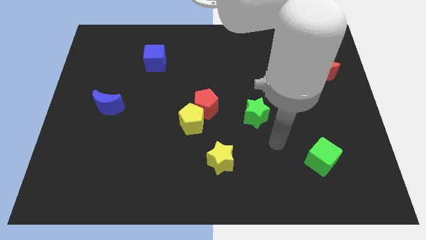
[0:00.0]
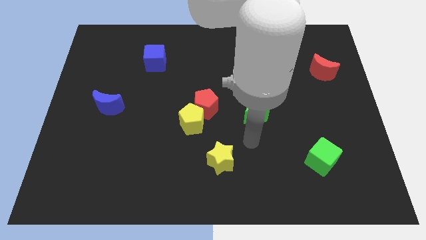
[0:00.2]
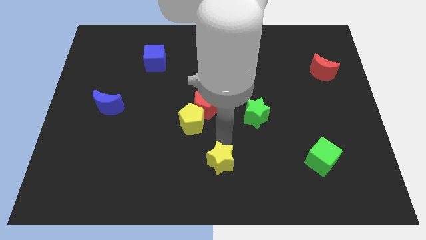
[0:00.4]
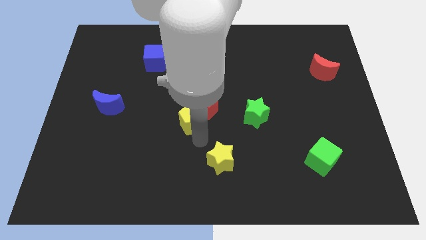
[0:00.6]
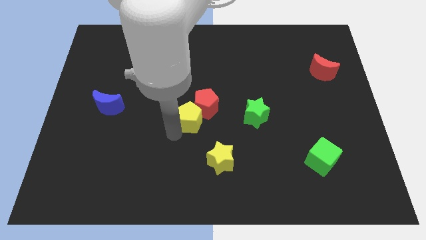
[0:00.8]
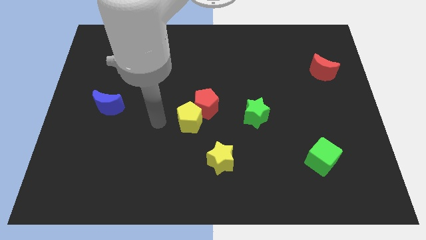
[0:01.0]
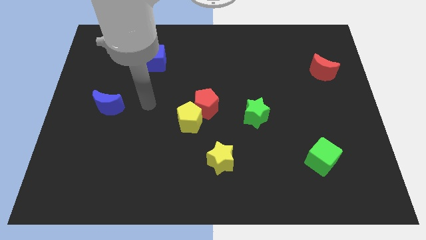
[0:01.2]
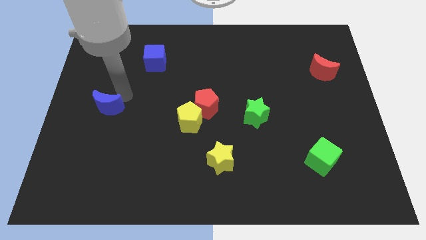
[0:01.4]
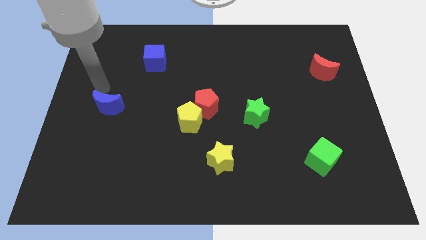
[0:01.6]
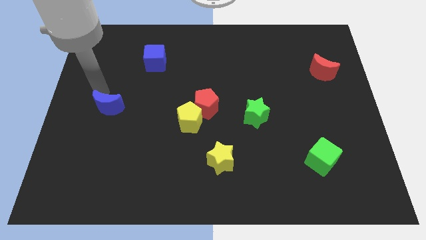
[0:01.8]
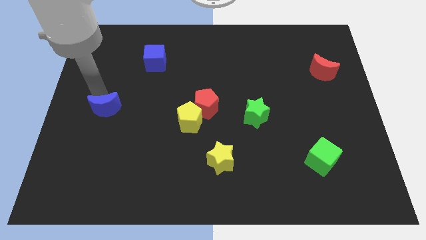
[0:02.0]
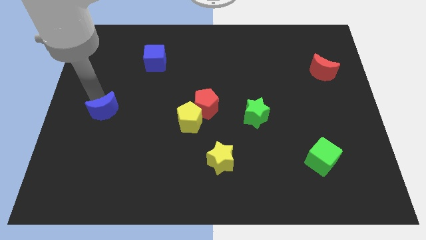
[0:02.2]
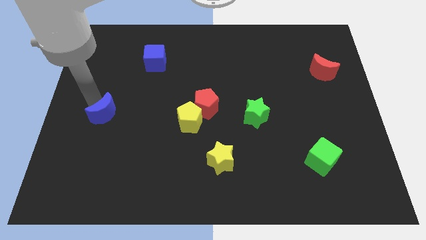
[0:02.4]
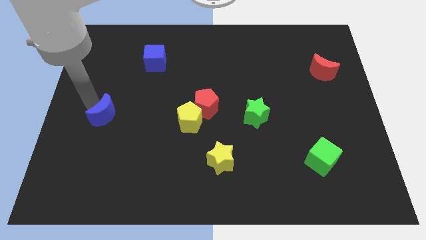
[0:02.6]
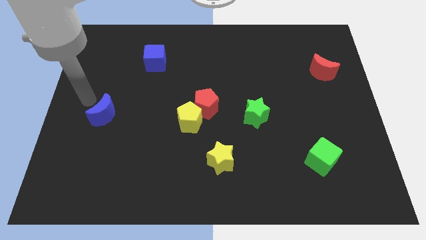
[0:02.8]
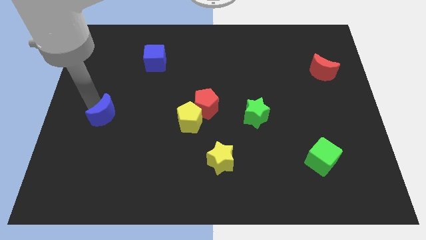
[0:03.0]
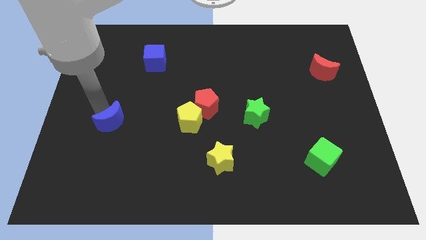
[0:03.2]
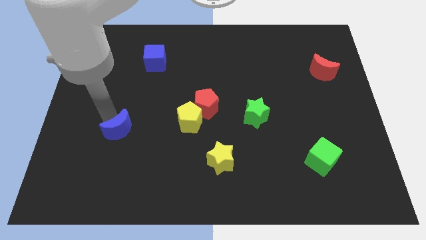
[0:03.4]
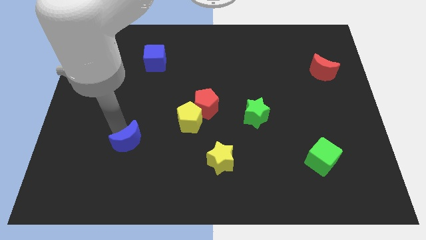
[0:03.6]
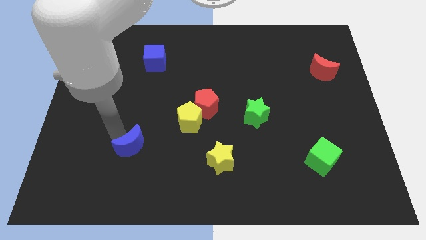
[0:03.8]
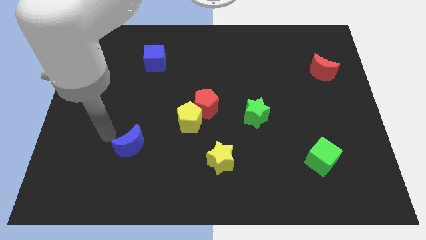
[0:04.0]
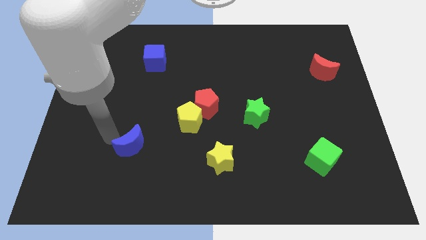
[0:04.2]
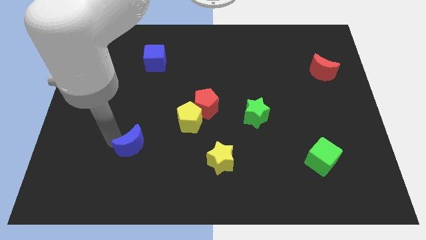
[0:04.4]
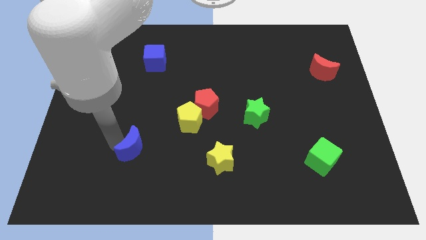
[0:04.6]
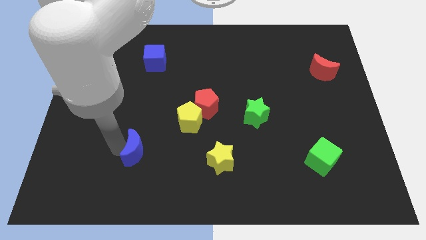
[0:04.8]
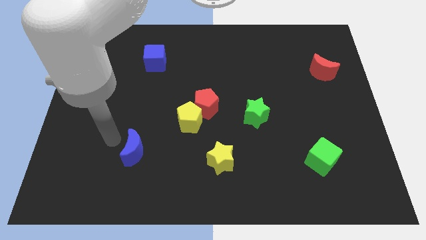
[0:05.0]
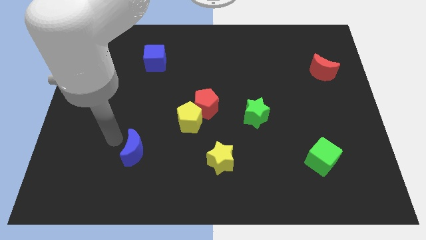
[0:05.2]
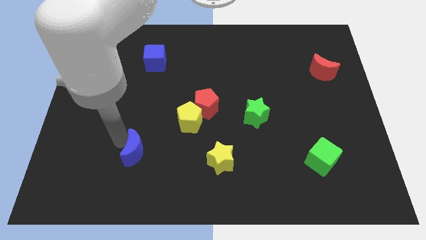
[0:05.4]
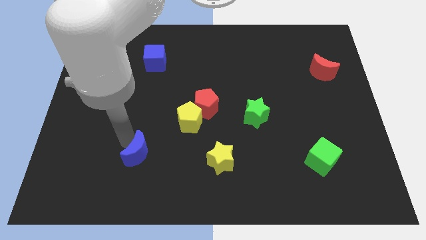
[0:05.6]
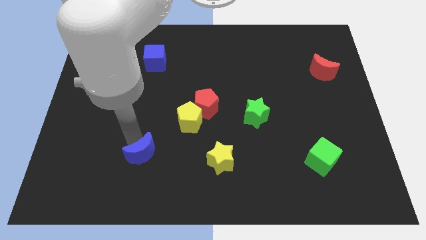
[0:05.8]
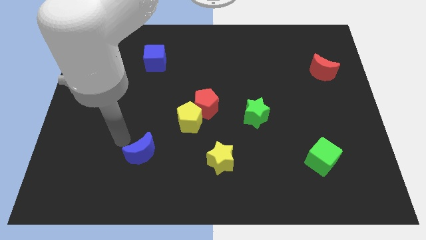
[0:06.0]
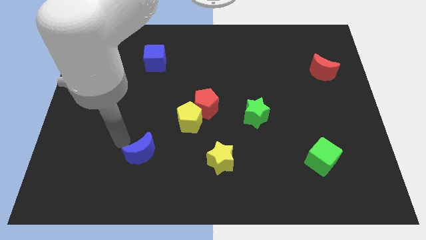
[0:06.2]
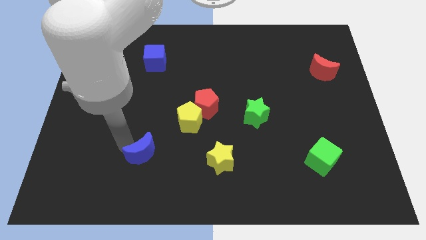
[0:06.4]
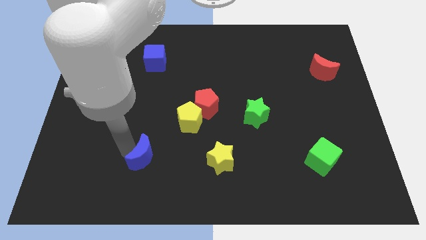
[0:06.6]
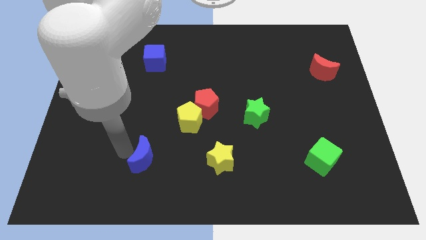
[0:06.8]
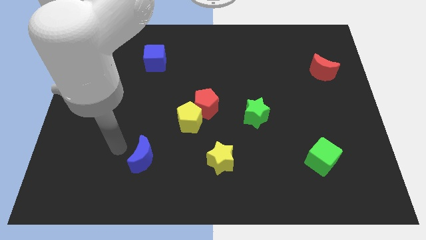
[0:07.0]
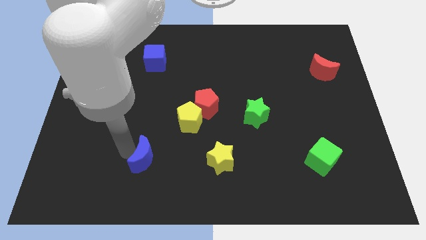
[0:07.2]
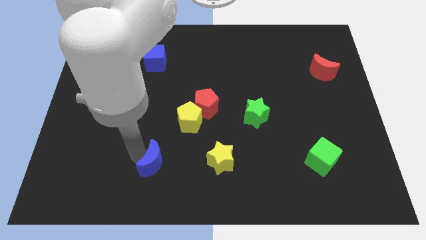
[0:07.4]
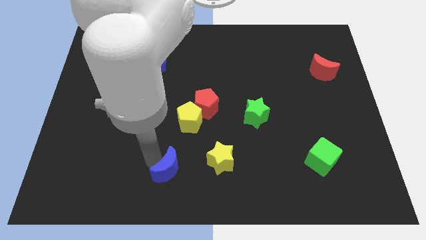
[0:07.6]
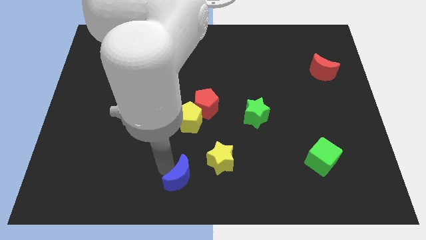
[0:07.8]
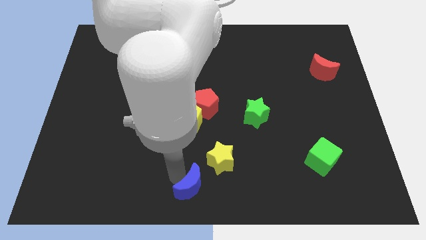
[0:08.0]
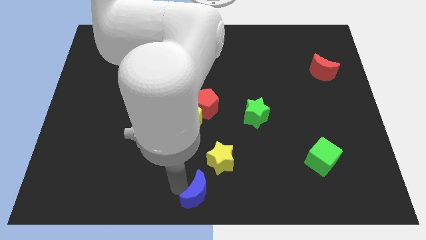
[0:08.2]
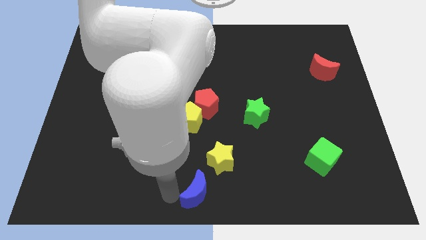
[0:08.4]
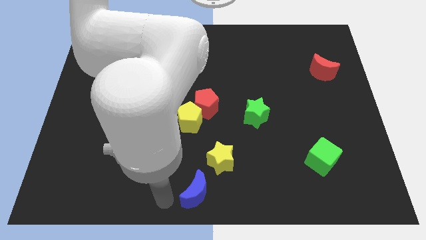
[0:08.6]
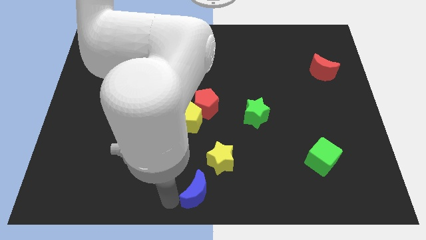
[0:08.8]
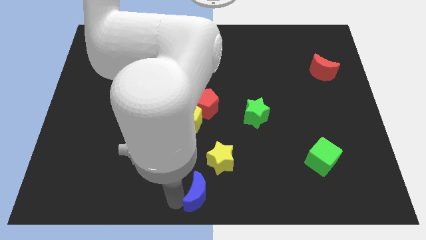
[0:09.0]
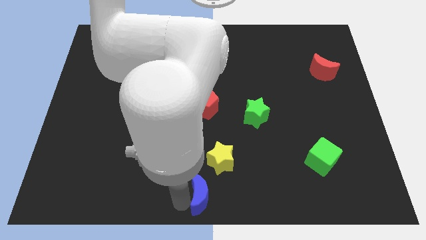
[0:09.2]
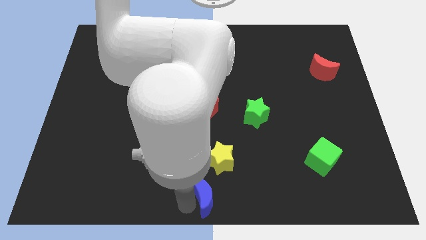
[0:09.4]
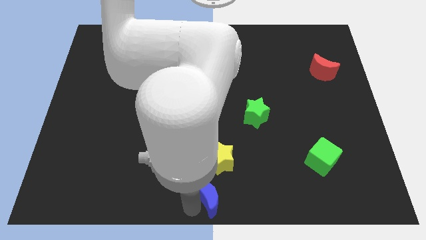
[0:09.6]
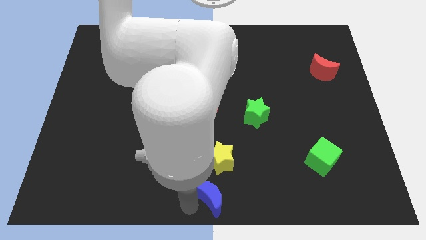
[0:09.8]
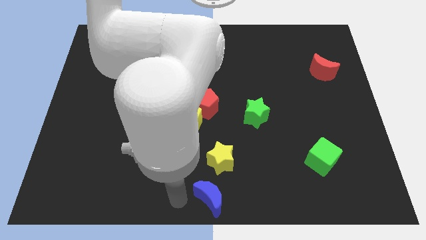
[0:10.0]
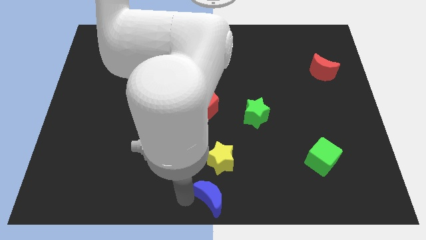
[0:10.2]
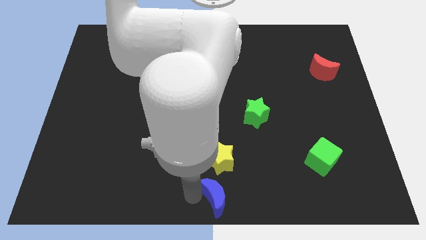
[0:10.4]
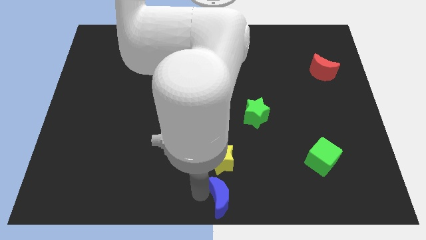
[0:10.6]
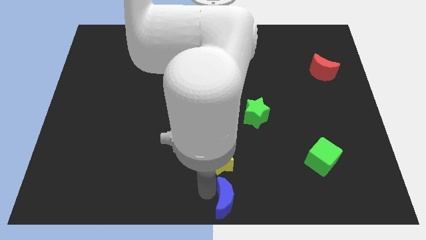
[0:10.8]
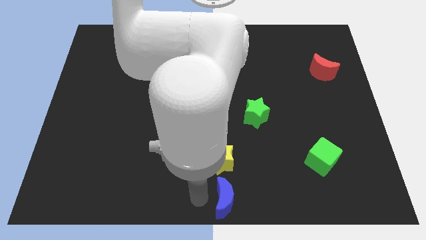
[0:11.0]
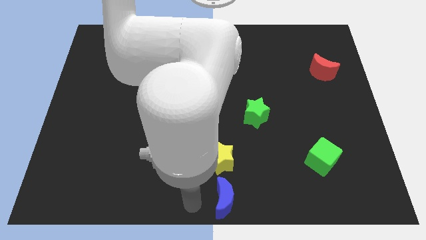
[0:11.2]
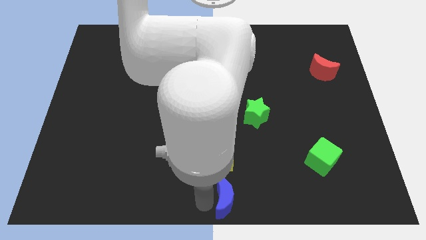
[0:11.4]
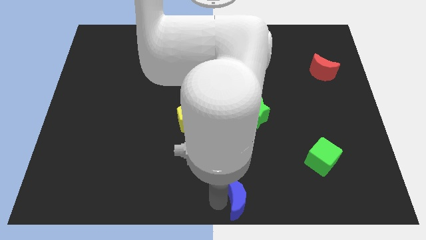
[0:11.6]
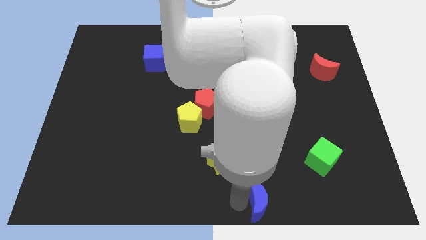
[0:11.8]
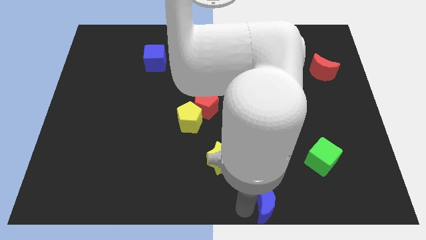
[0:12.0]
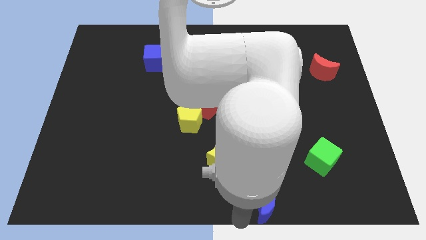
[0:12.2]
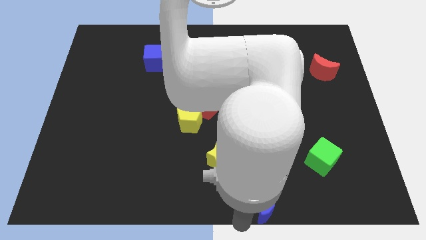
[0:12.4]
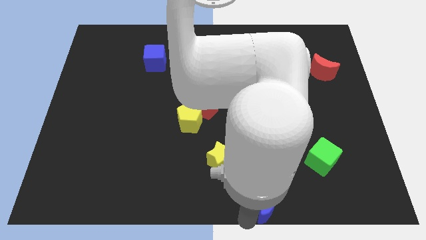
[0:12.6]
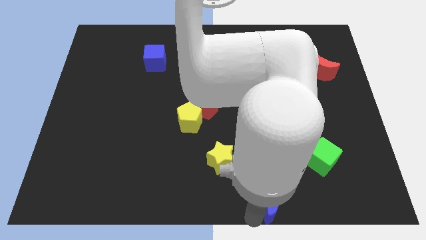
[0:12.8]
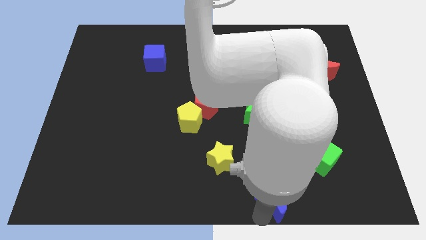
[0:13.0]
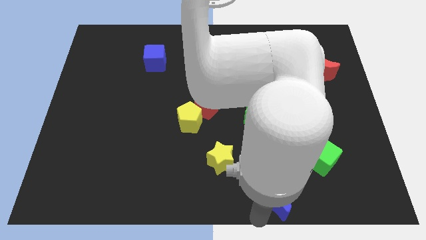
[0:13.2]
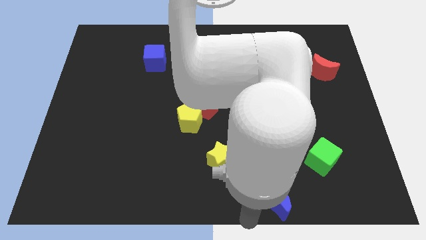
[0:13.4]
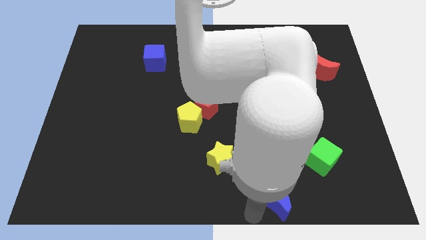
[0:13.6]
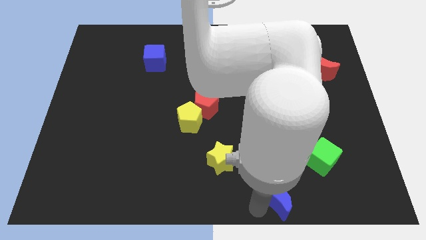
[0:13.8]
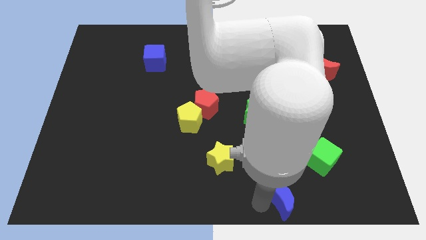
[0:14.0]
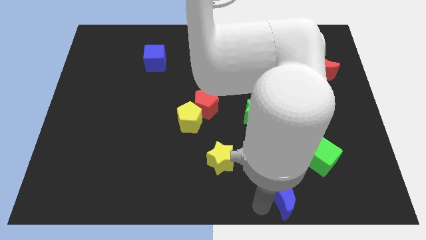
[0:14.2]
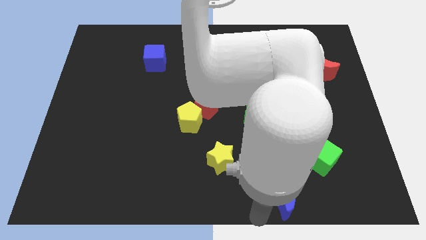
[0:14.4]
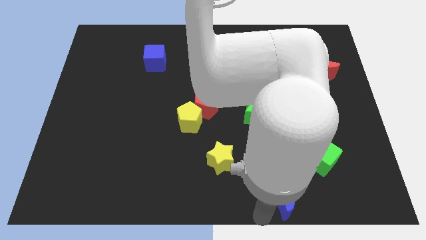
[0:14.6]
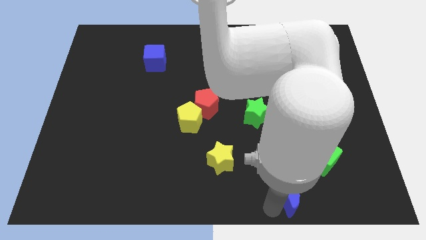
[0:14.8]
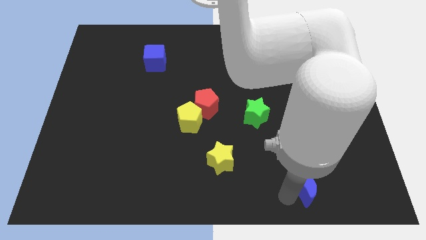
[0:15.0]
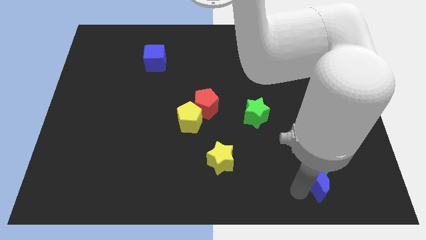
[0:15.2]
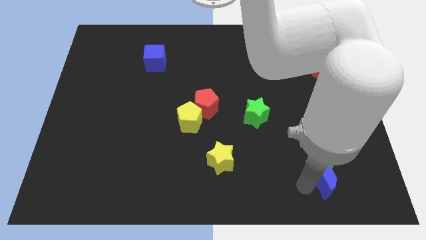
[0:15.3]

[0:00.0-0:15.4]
put the blue moon to the bottom right of the green cube

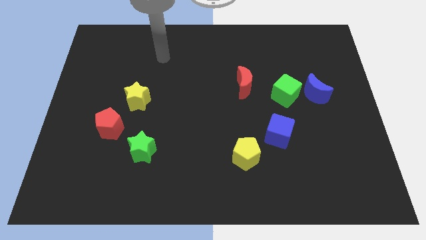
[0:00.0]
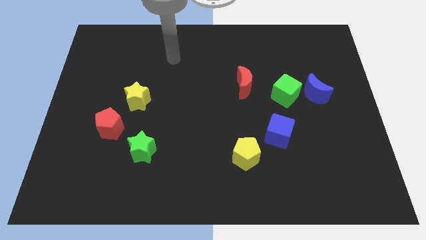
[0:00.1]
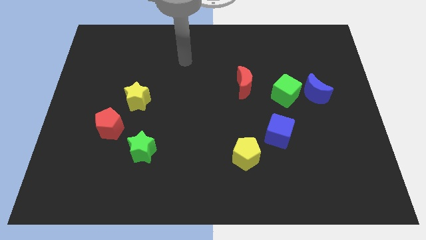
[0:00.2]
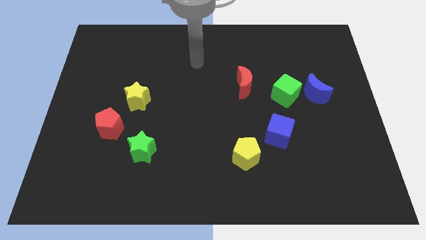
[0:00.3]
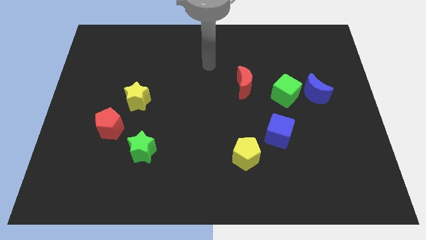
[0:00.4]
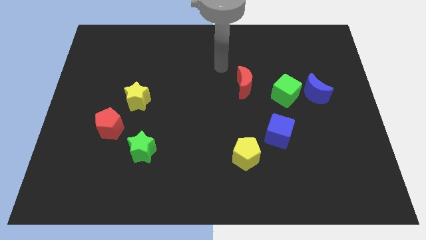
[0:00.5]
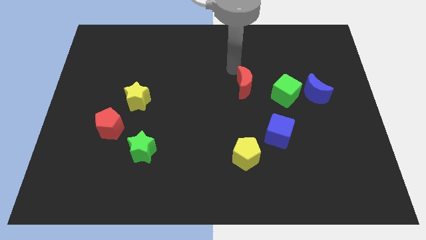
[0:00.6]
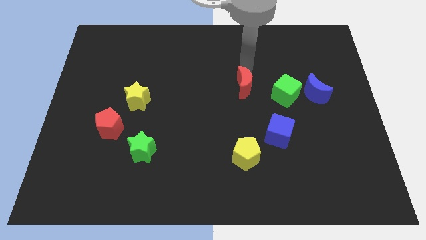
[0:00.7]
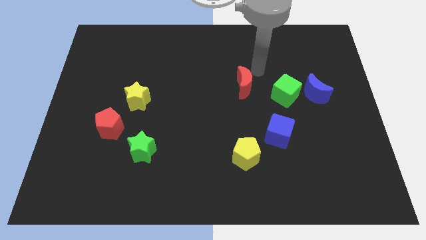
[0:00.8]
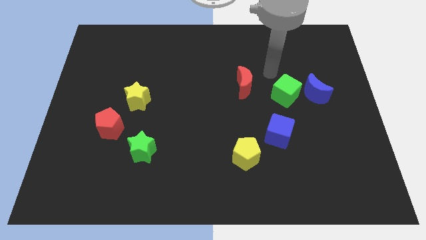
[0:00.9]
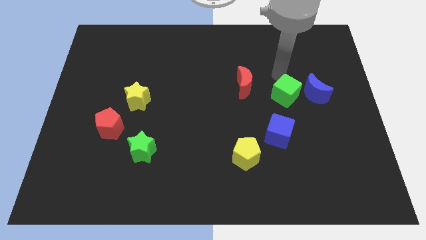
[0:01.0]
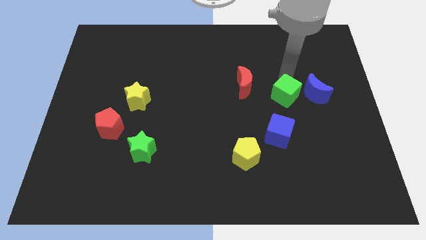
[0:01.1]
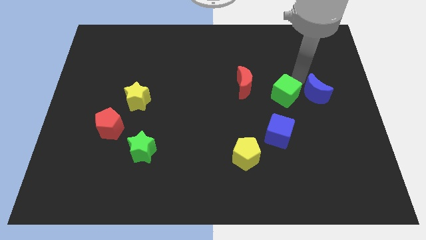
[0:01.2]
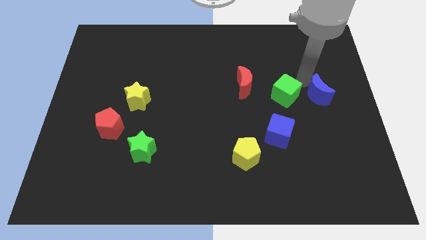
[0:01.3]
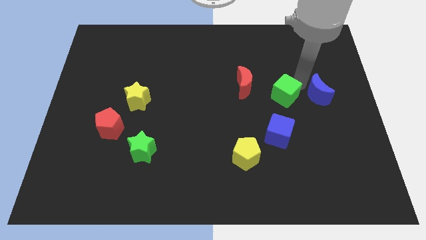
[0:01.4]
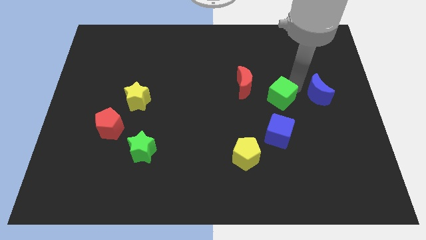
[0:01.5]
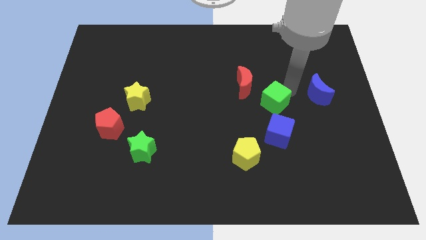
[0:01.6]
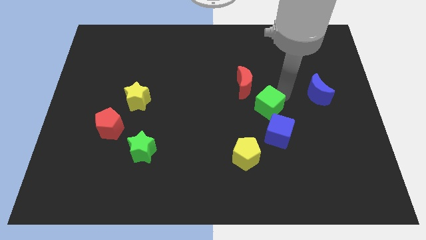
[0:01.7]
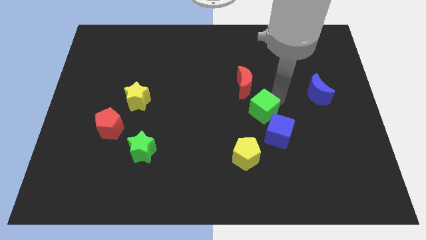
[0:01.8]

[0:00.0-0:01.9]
slide the green cube to the bottom of the red moon
